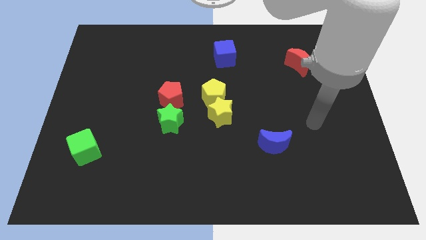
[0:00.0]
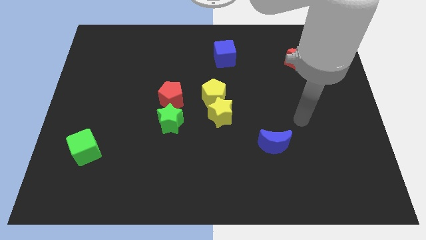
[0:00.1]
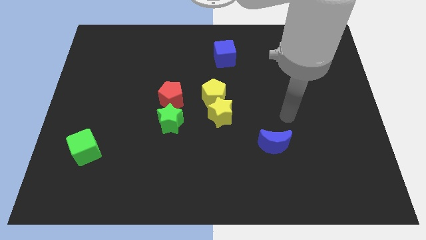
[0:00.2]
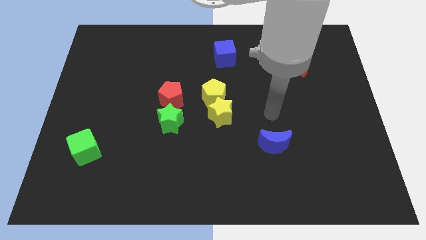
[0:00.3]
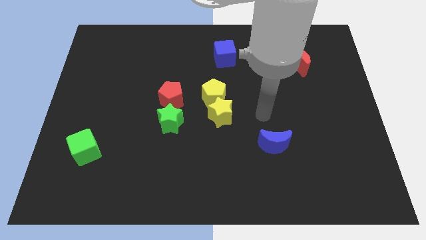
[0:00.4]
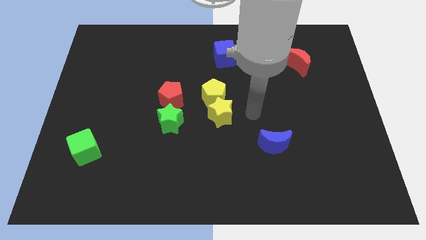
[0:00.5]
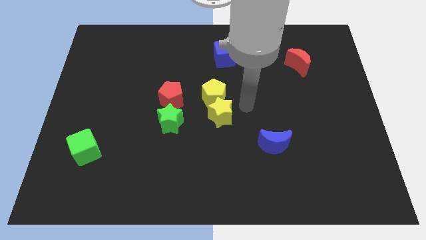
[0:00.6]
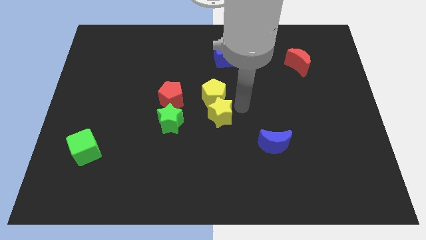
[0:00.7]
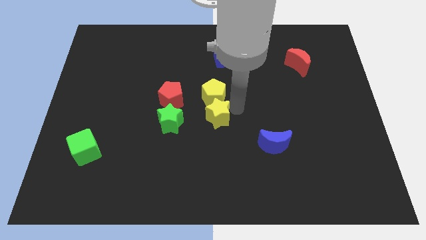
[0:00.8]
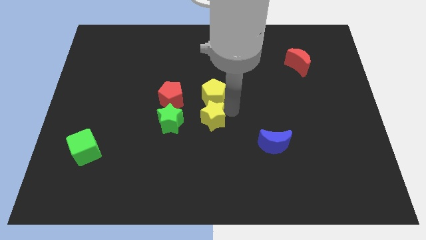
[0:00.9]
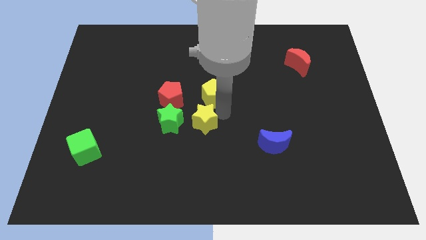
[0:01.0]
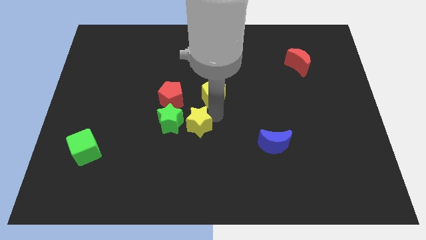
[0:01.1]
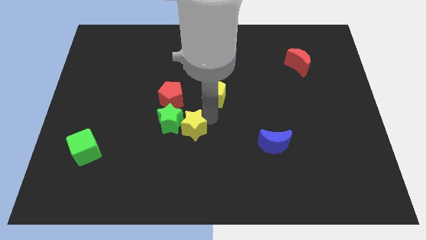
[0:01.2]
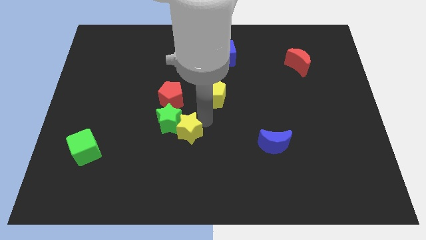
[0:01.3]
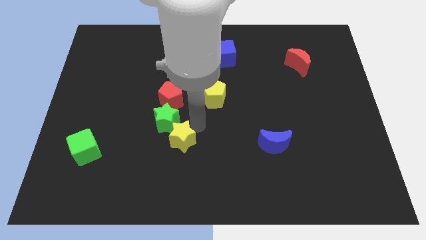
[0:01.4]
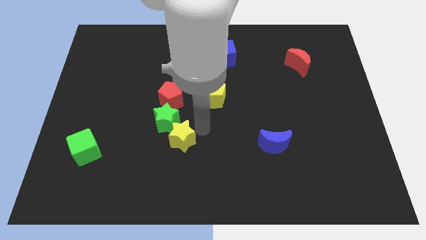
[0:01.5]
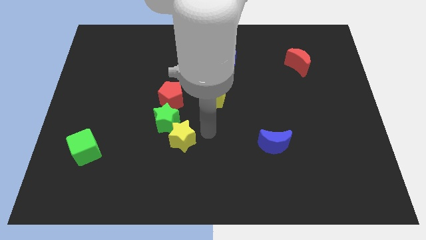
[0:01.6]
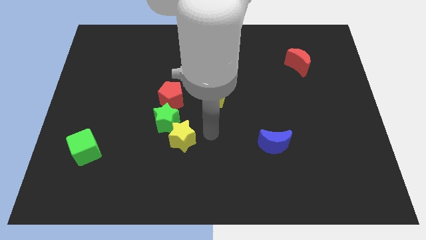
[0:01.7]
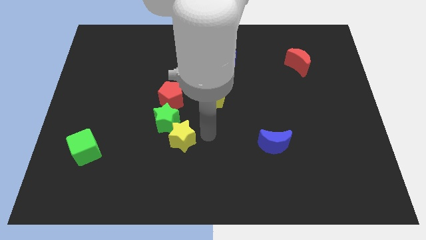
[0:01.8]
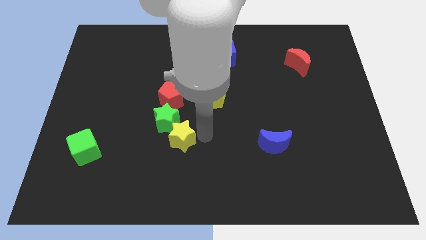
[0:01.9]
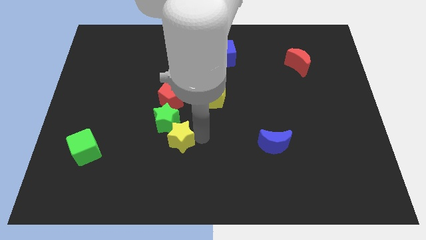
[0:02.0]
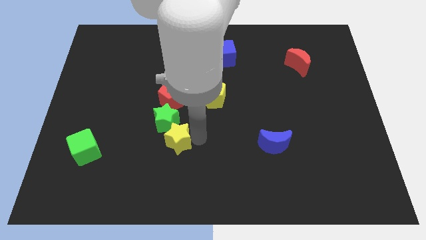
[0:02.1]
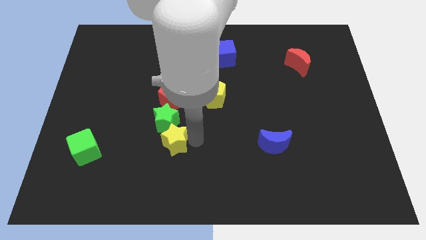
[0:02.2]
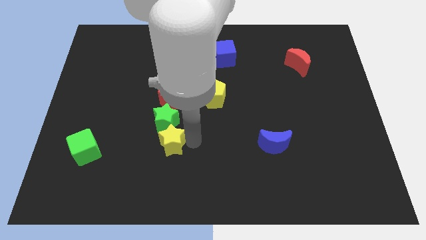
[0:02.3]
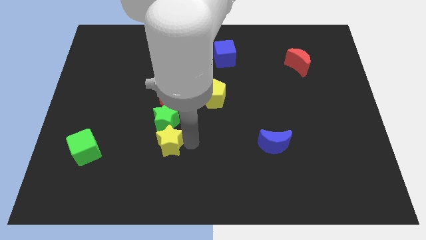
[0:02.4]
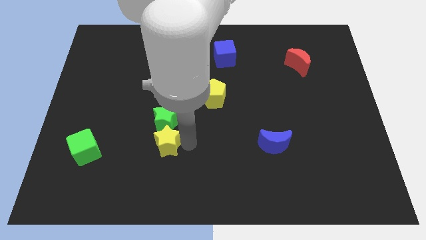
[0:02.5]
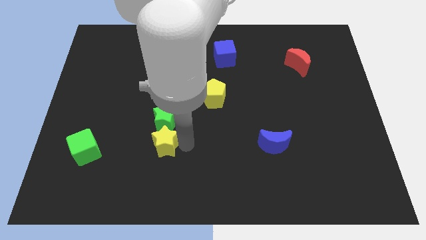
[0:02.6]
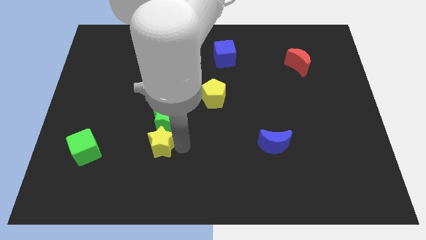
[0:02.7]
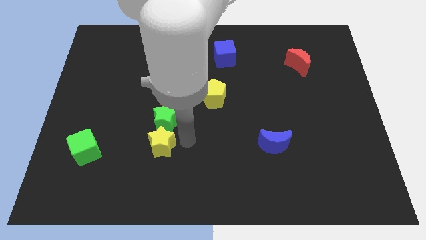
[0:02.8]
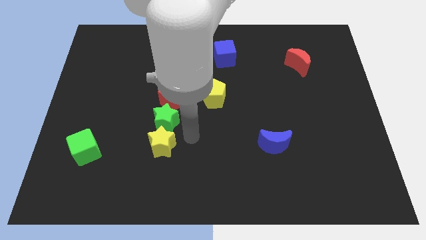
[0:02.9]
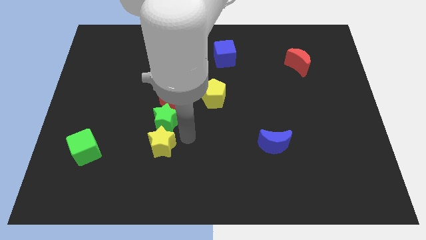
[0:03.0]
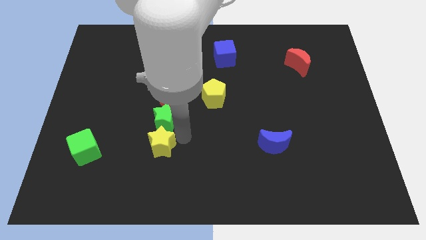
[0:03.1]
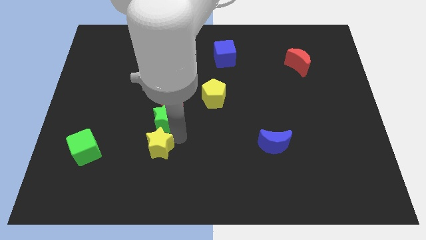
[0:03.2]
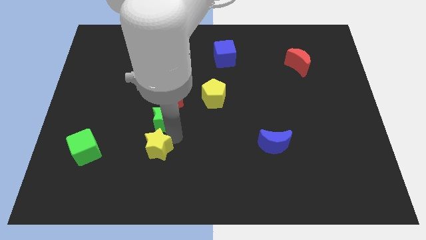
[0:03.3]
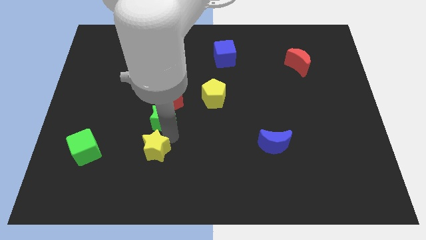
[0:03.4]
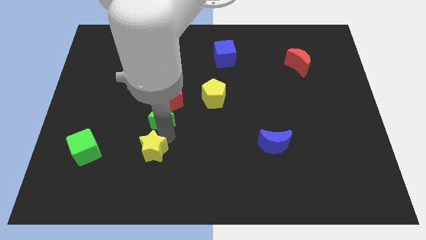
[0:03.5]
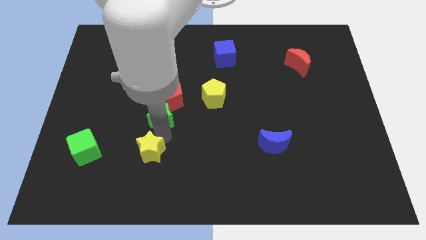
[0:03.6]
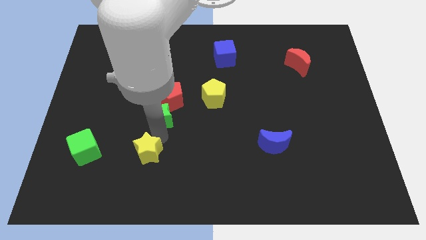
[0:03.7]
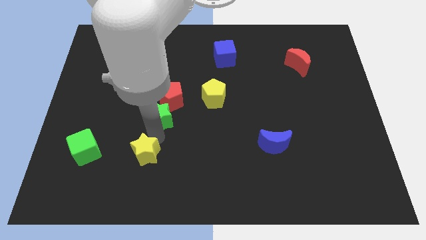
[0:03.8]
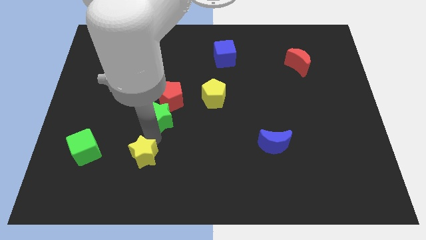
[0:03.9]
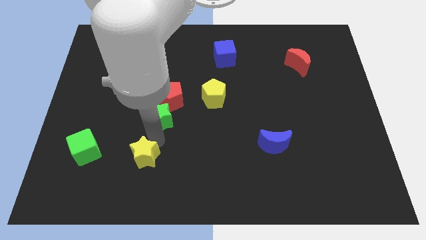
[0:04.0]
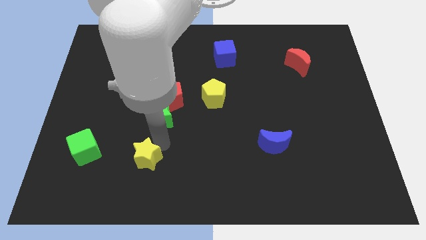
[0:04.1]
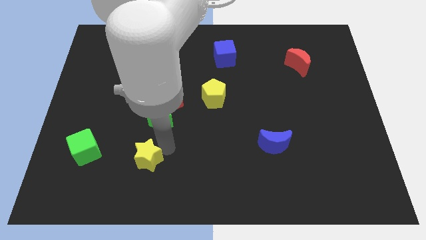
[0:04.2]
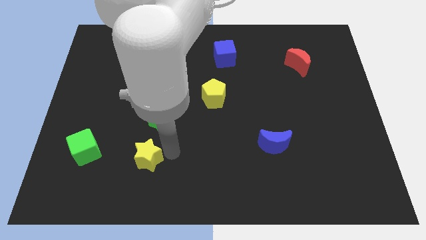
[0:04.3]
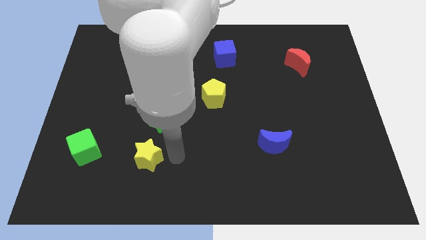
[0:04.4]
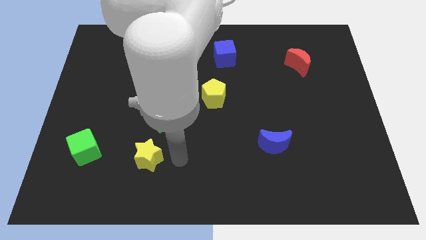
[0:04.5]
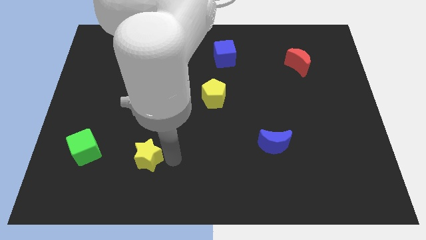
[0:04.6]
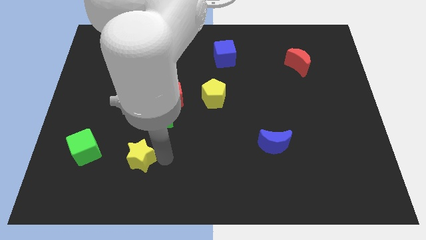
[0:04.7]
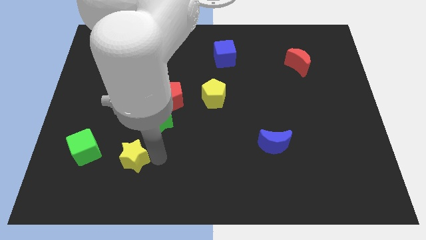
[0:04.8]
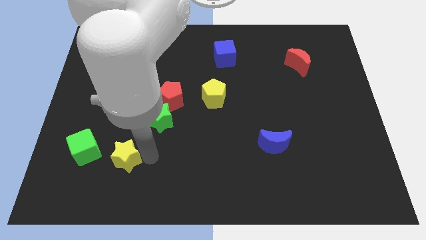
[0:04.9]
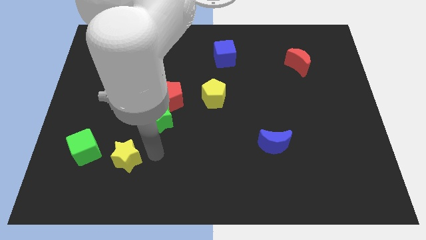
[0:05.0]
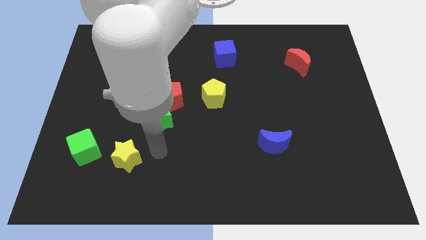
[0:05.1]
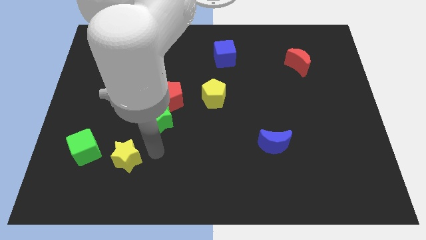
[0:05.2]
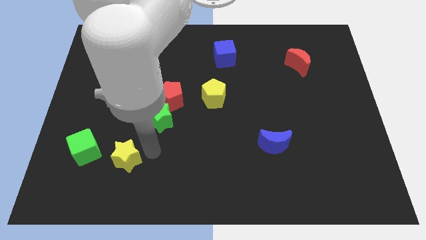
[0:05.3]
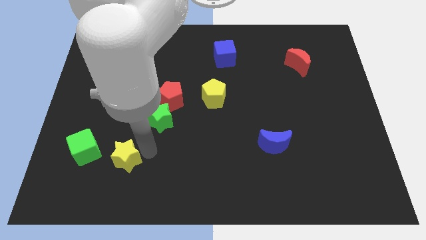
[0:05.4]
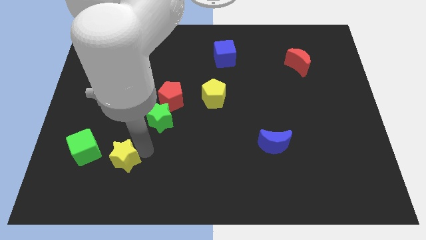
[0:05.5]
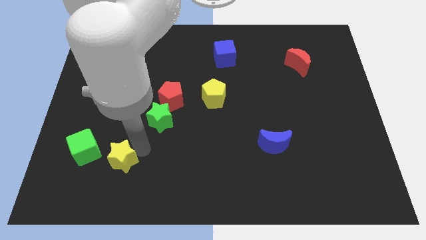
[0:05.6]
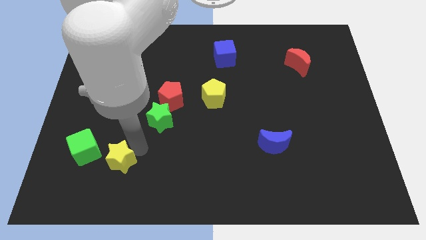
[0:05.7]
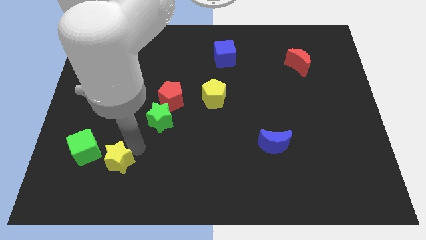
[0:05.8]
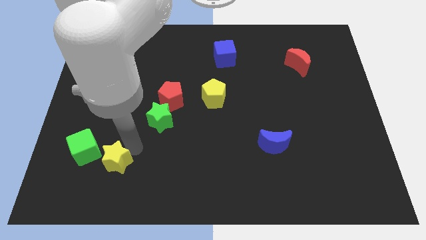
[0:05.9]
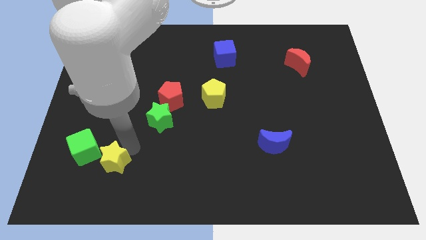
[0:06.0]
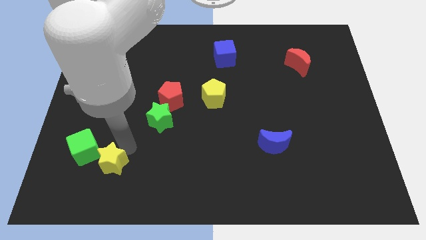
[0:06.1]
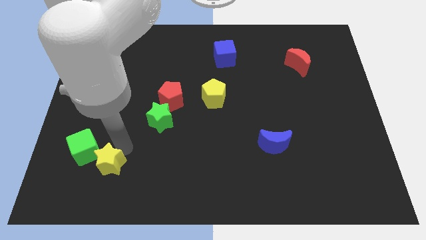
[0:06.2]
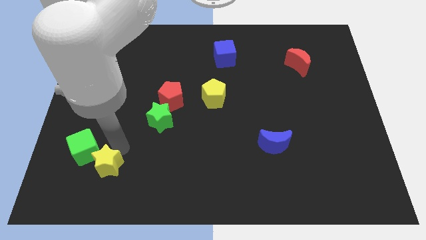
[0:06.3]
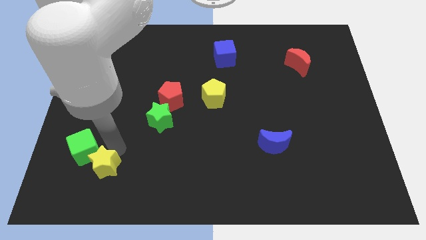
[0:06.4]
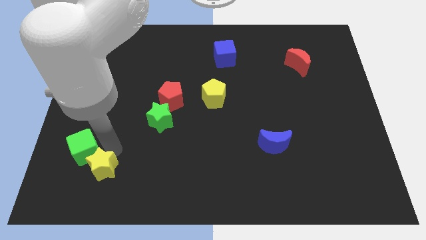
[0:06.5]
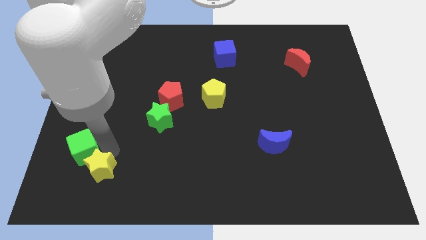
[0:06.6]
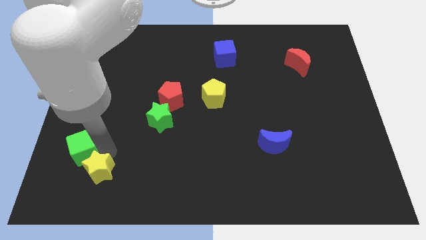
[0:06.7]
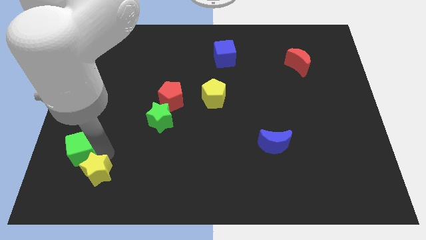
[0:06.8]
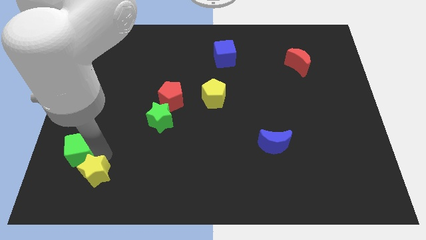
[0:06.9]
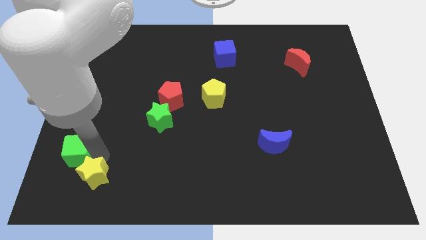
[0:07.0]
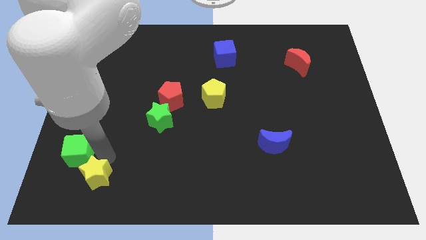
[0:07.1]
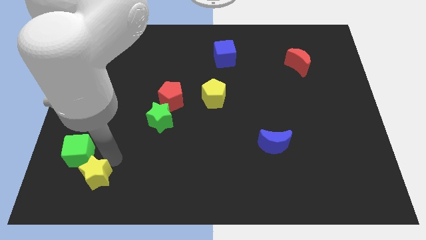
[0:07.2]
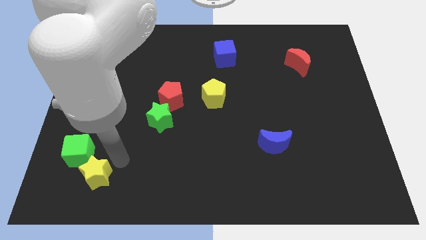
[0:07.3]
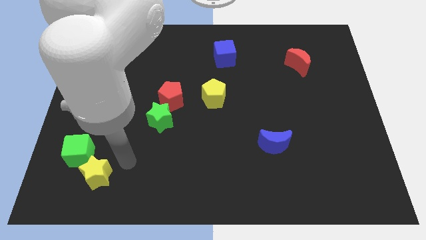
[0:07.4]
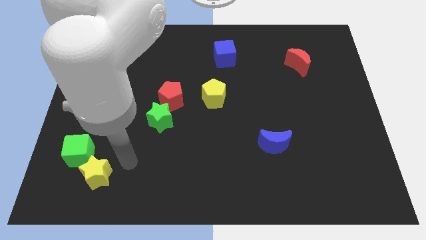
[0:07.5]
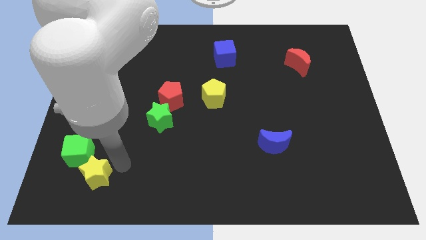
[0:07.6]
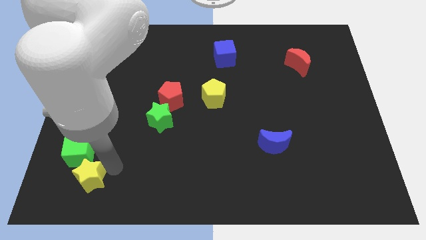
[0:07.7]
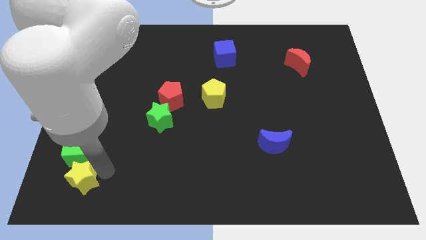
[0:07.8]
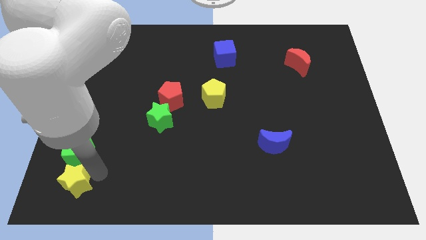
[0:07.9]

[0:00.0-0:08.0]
push the yellow star to the bottom left of the board
